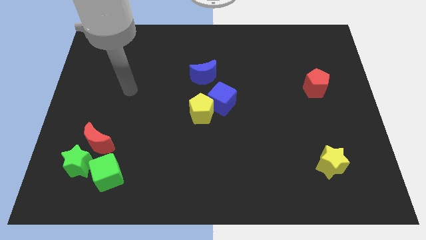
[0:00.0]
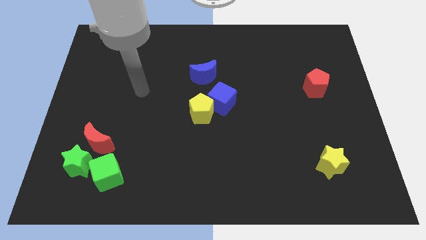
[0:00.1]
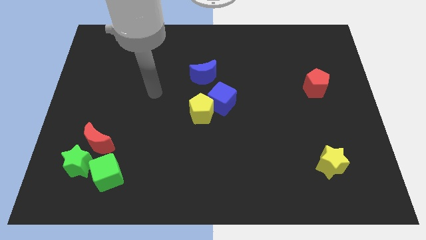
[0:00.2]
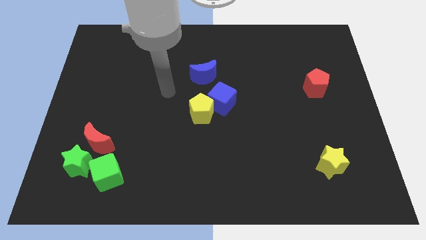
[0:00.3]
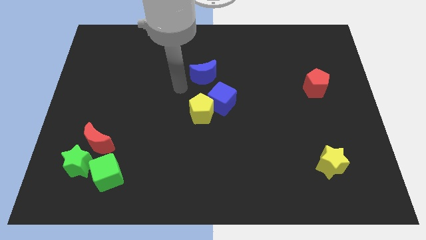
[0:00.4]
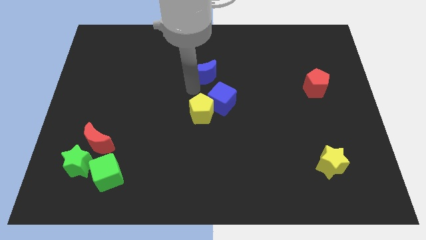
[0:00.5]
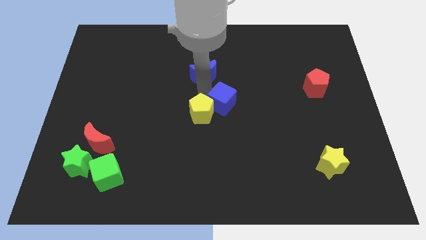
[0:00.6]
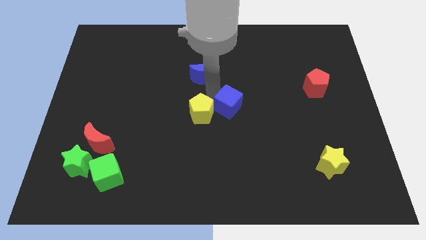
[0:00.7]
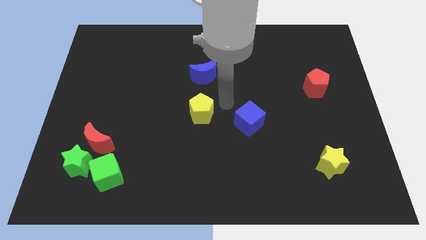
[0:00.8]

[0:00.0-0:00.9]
separate the yellow pentagon from the blue cube

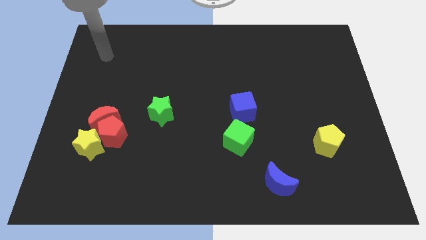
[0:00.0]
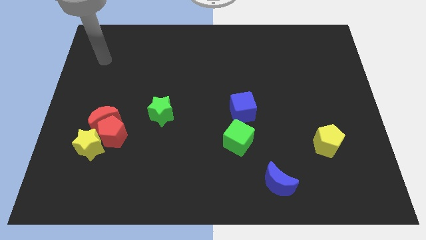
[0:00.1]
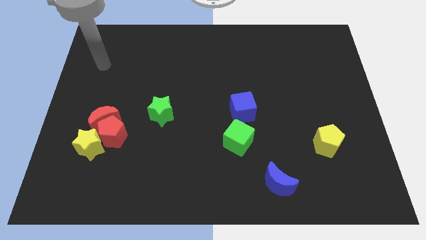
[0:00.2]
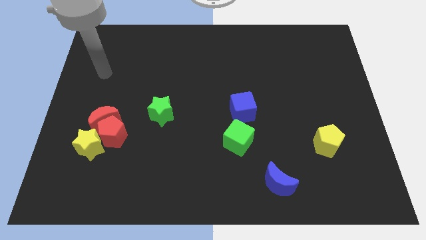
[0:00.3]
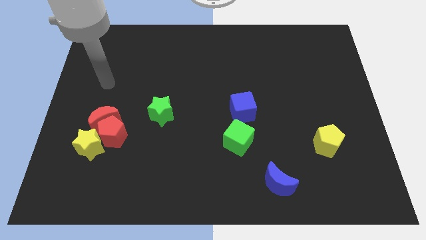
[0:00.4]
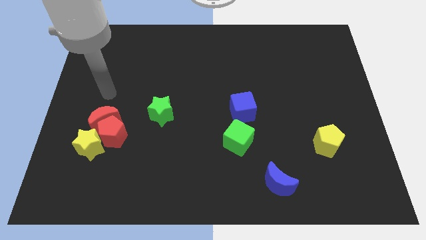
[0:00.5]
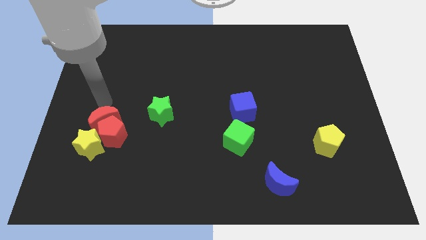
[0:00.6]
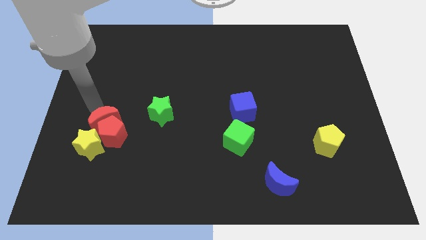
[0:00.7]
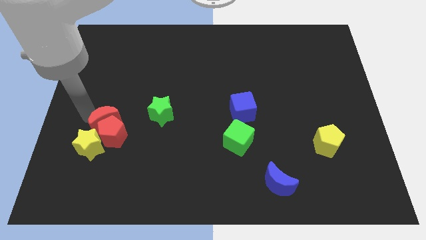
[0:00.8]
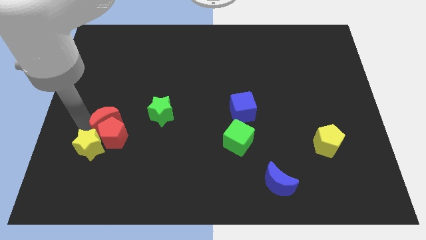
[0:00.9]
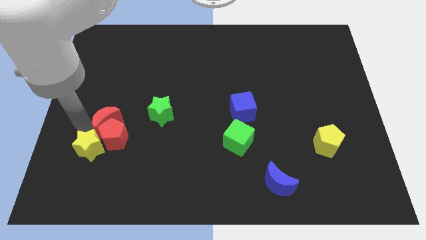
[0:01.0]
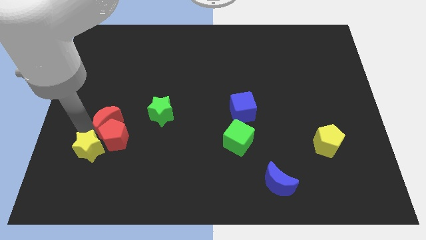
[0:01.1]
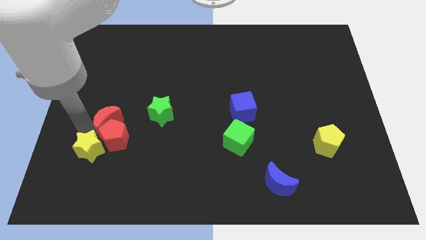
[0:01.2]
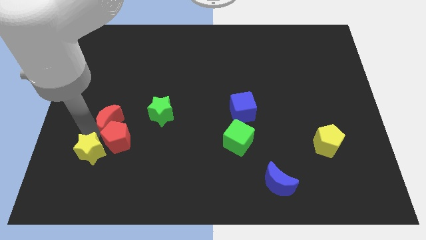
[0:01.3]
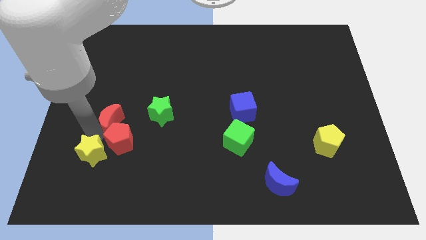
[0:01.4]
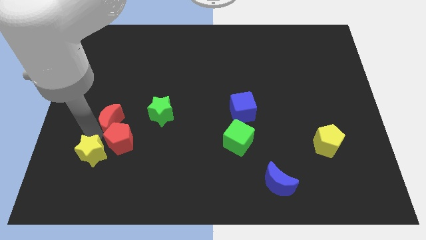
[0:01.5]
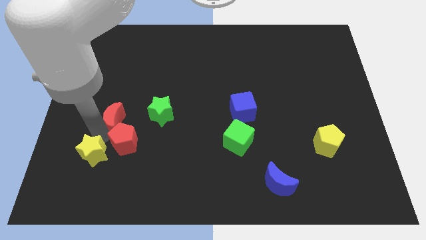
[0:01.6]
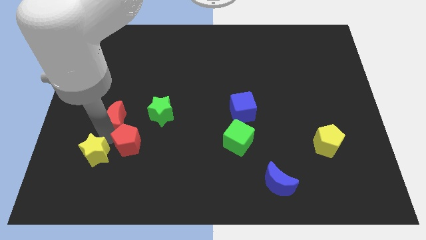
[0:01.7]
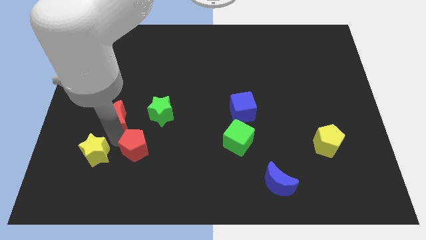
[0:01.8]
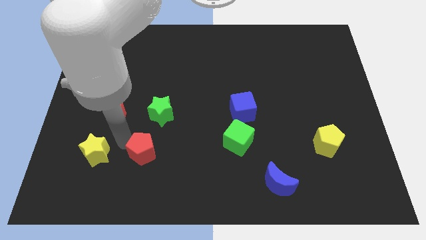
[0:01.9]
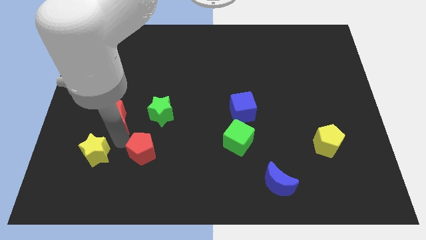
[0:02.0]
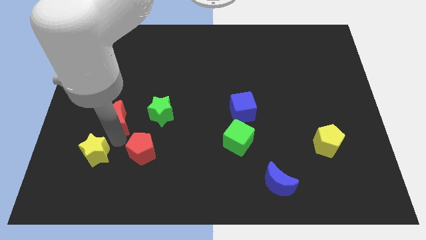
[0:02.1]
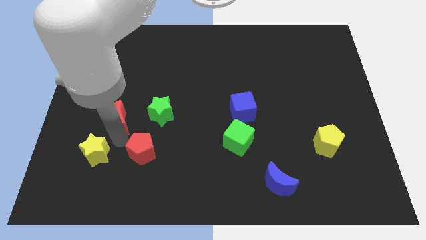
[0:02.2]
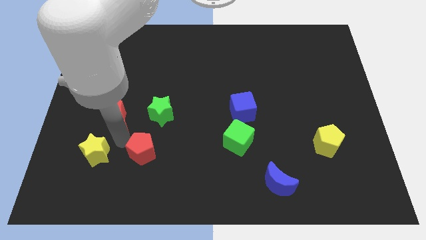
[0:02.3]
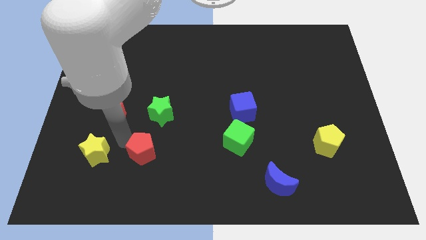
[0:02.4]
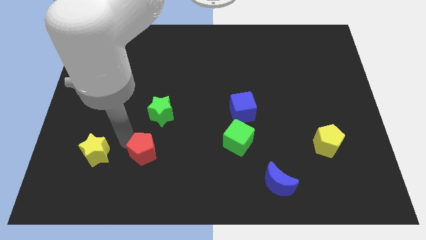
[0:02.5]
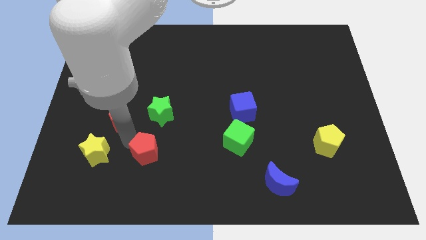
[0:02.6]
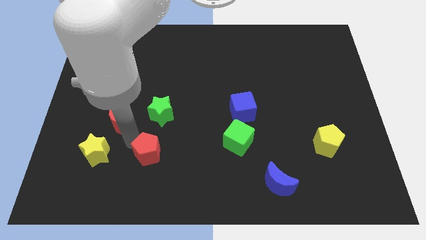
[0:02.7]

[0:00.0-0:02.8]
move the red pentagon away from the red moon and yellow star

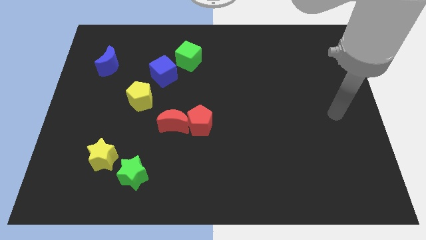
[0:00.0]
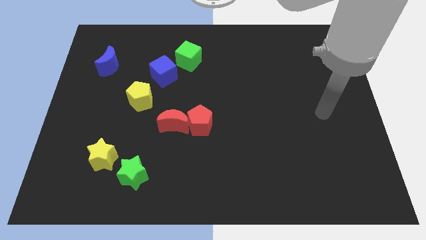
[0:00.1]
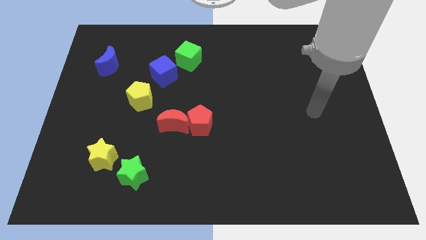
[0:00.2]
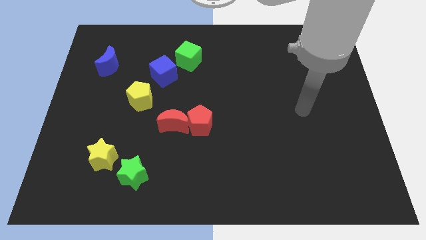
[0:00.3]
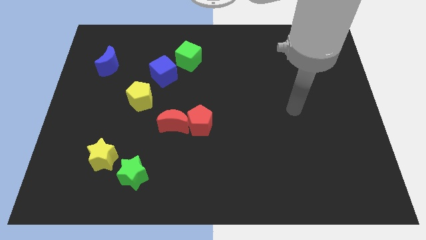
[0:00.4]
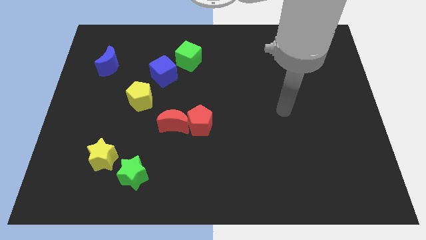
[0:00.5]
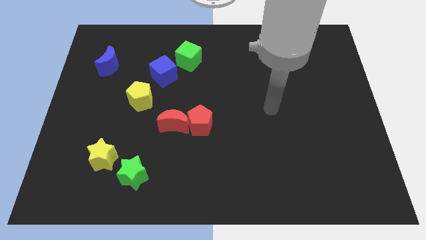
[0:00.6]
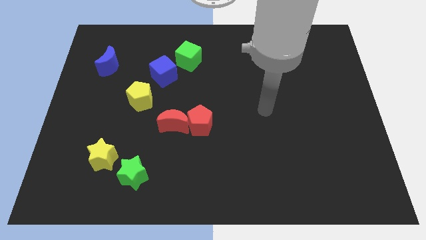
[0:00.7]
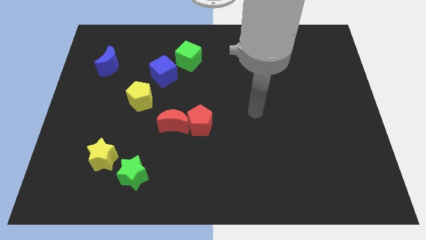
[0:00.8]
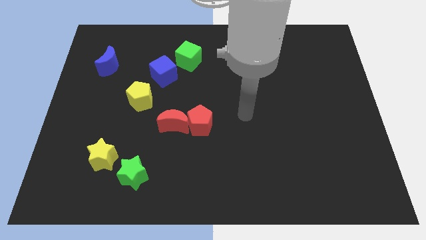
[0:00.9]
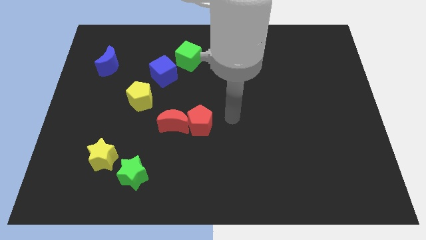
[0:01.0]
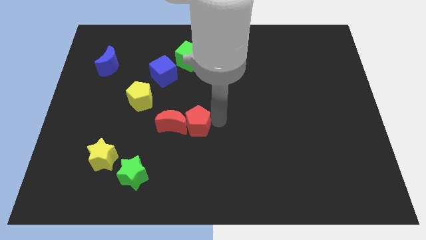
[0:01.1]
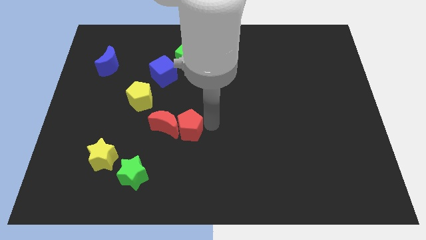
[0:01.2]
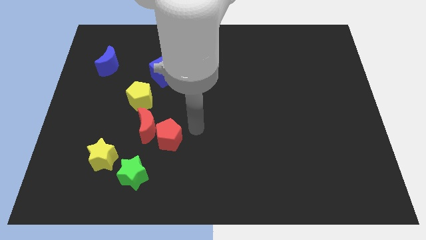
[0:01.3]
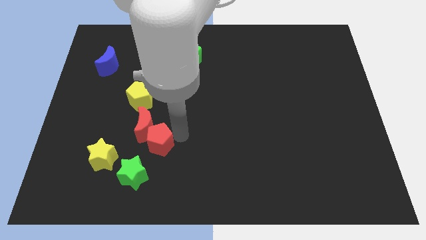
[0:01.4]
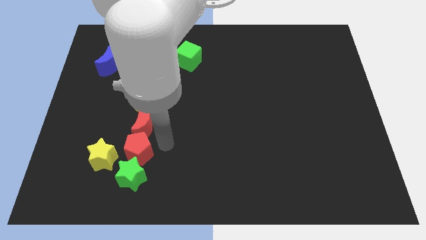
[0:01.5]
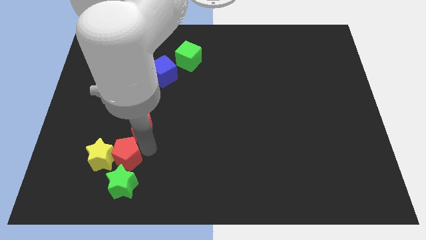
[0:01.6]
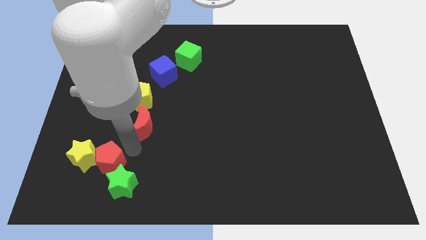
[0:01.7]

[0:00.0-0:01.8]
separate the red moon from the red pentagon

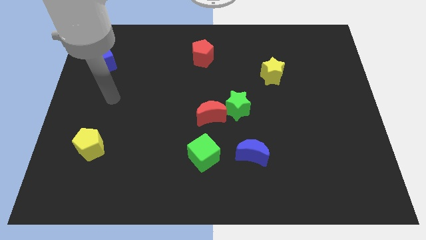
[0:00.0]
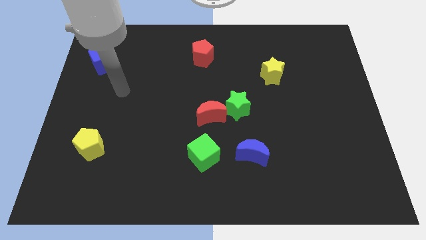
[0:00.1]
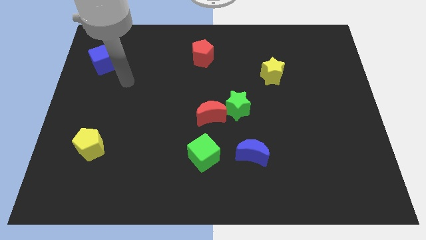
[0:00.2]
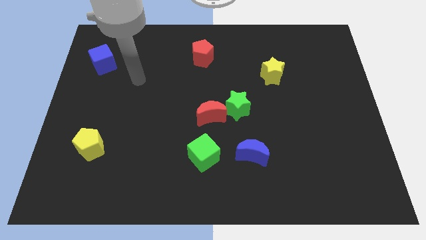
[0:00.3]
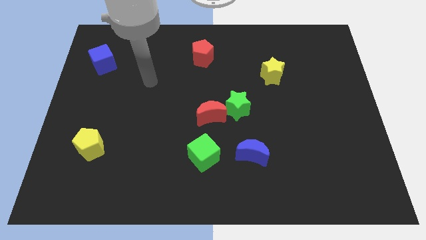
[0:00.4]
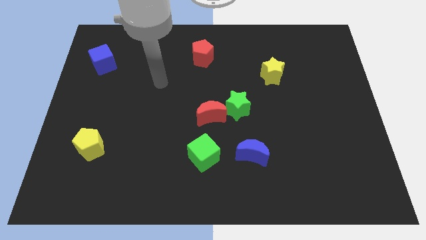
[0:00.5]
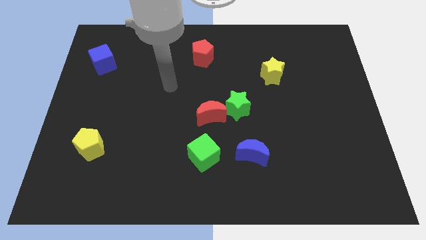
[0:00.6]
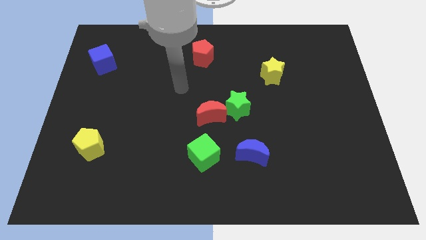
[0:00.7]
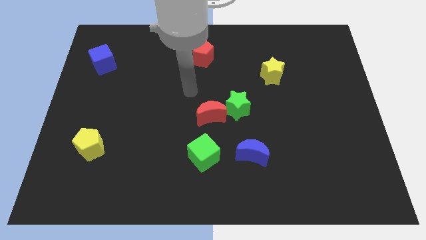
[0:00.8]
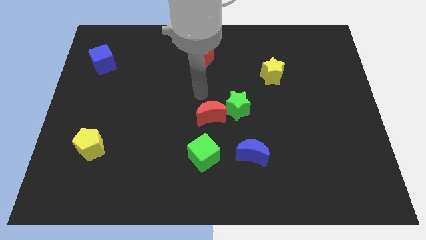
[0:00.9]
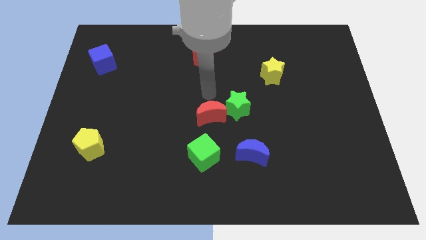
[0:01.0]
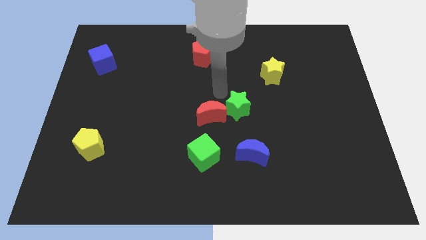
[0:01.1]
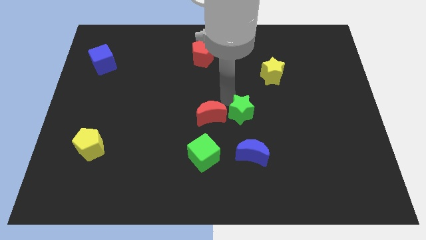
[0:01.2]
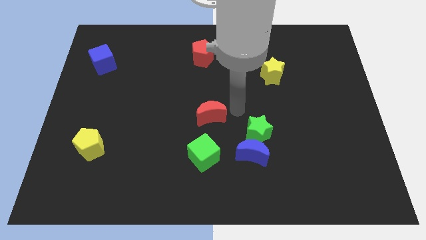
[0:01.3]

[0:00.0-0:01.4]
move the red moon away from the green star

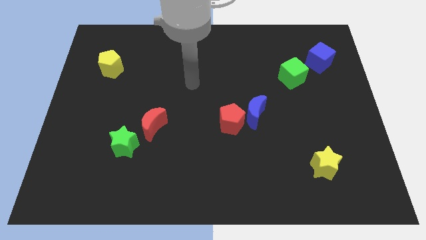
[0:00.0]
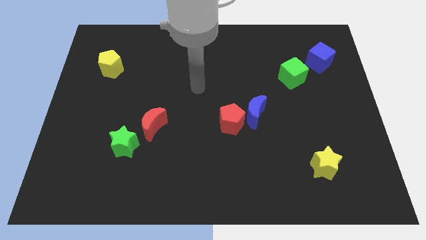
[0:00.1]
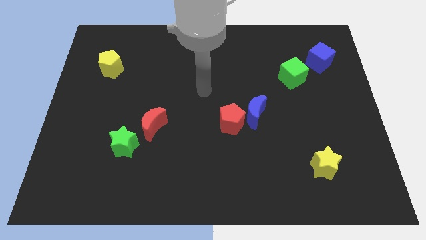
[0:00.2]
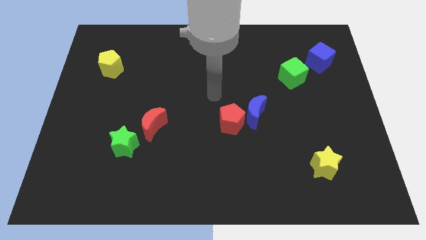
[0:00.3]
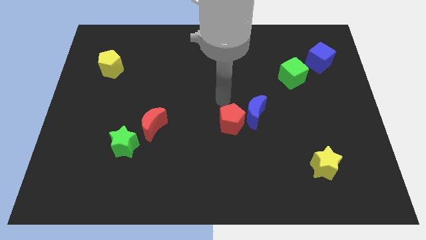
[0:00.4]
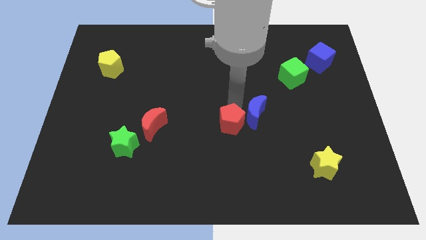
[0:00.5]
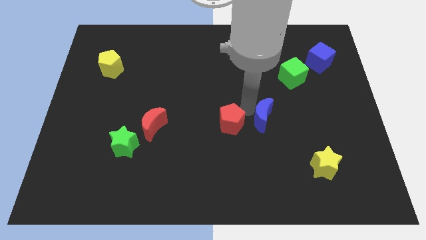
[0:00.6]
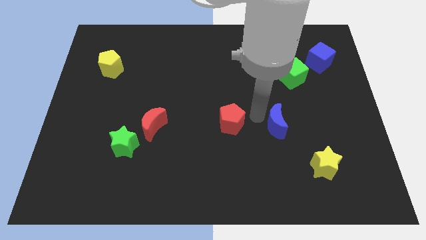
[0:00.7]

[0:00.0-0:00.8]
separate the red pentagon from the blue moon

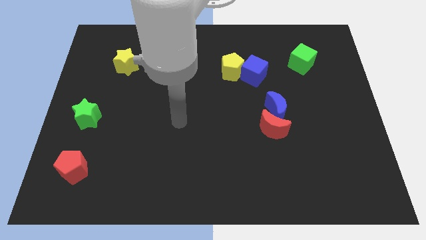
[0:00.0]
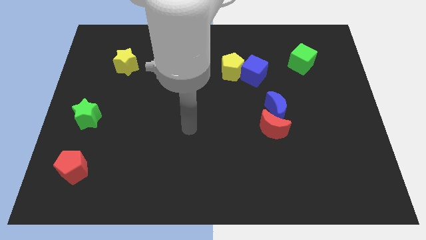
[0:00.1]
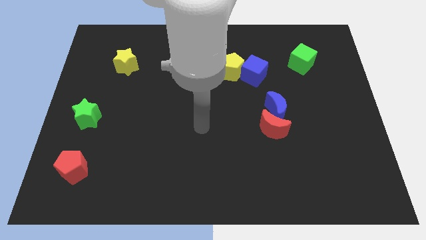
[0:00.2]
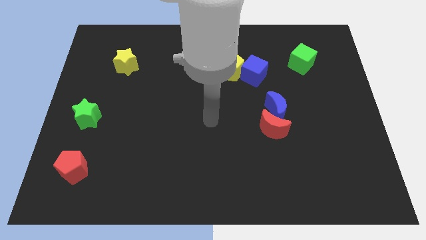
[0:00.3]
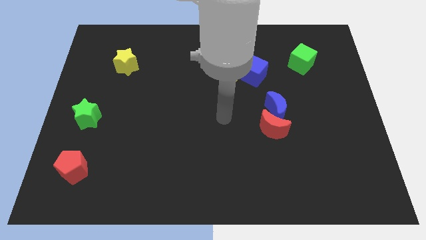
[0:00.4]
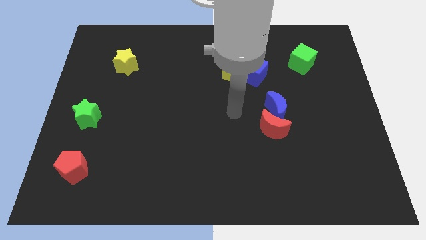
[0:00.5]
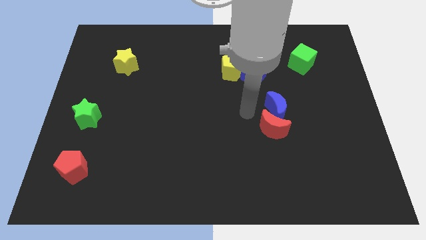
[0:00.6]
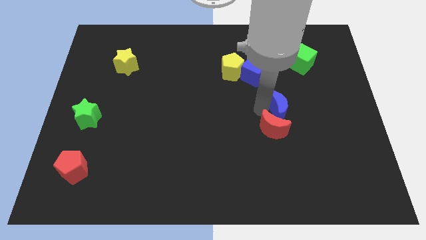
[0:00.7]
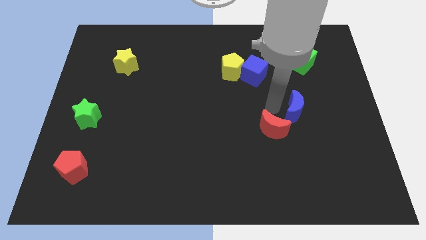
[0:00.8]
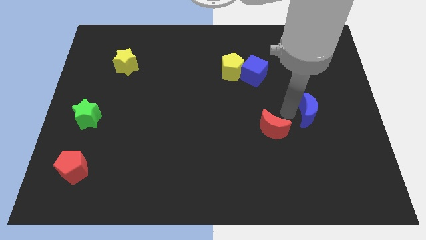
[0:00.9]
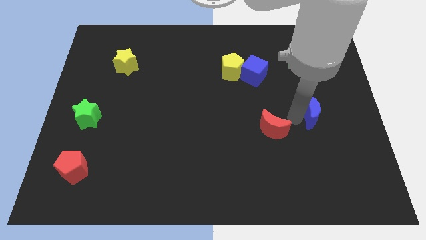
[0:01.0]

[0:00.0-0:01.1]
move the red moon away from the blue moon

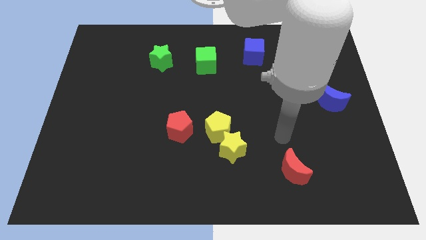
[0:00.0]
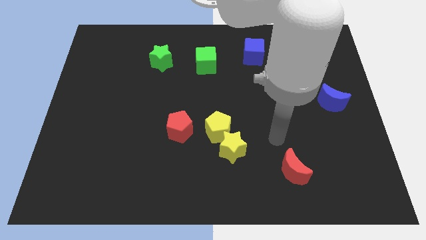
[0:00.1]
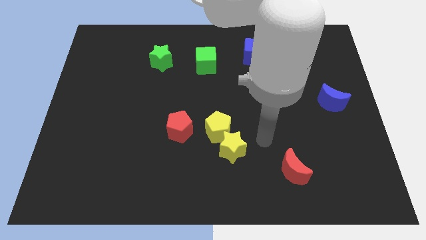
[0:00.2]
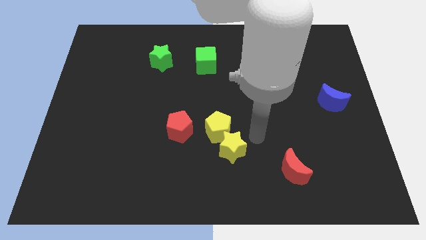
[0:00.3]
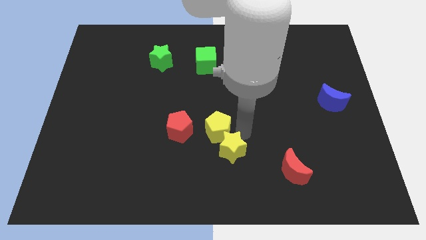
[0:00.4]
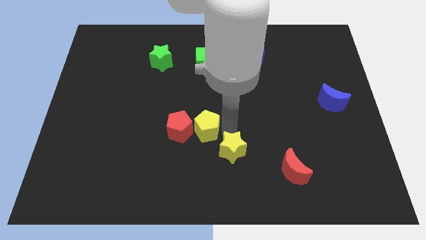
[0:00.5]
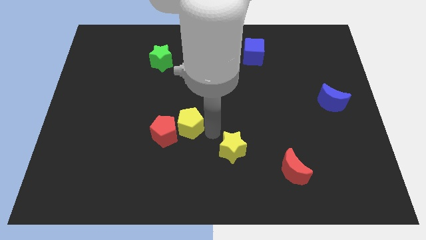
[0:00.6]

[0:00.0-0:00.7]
pull the yellow star apart from the yellow pentagon
